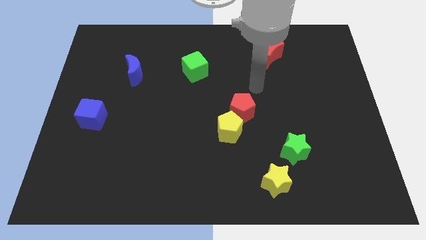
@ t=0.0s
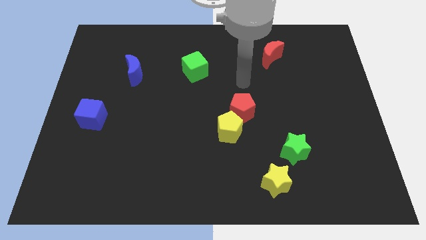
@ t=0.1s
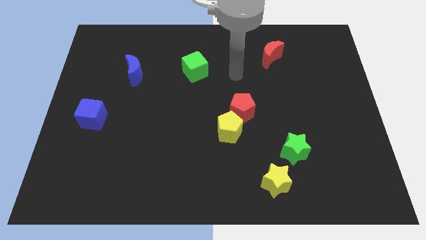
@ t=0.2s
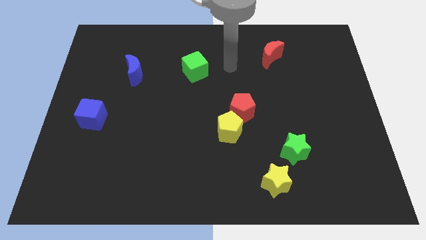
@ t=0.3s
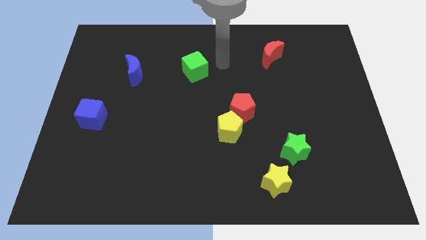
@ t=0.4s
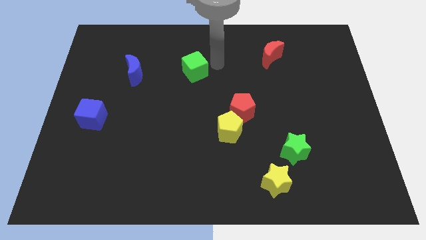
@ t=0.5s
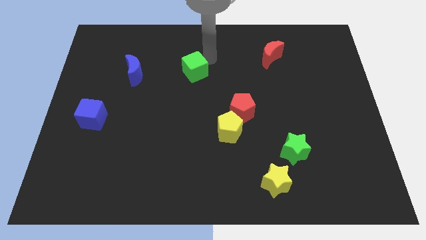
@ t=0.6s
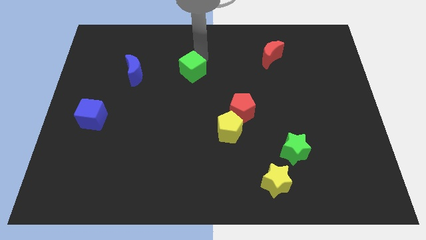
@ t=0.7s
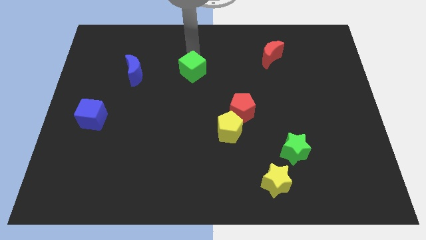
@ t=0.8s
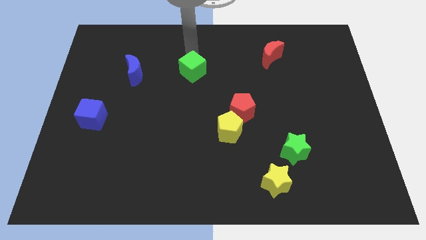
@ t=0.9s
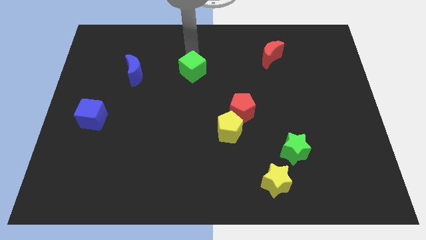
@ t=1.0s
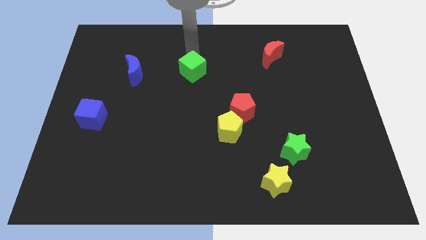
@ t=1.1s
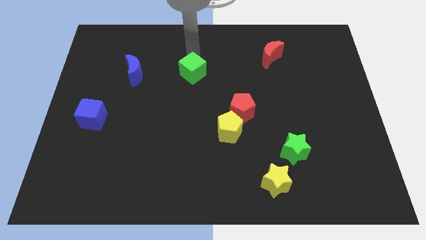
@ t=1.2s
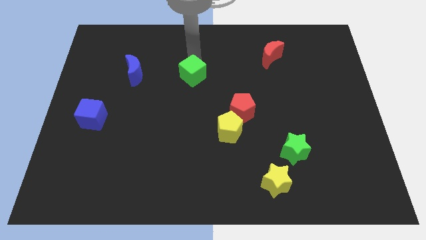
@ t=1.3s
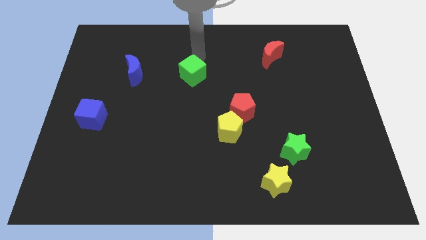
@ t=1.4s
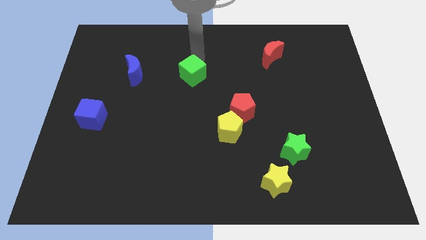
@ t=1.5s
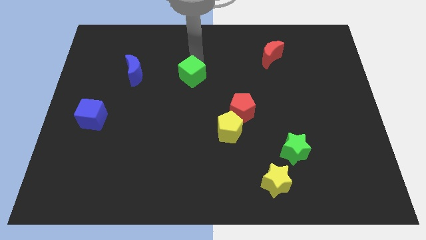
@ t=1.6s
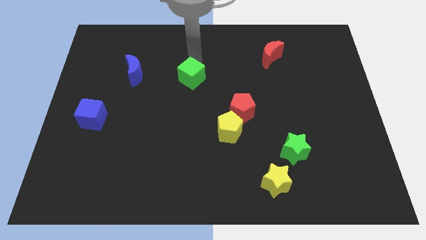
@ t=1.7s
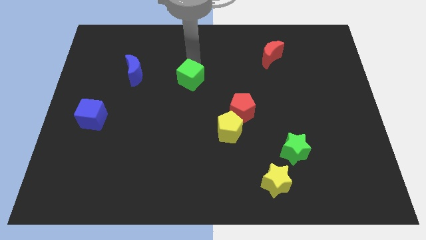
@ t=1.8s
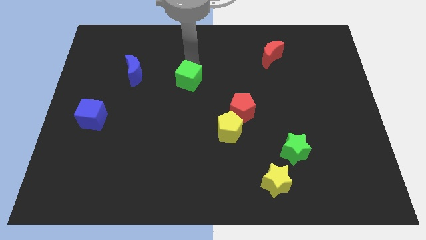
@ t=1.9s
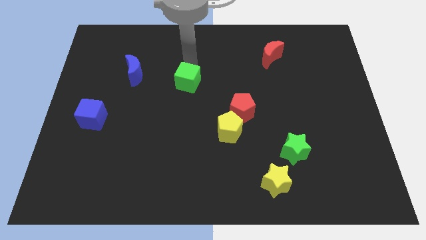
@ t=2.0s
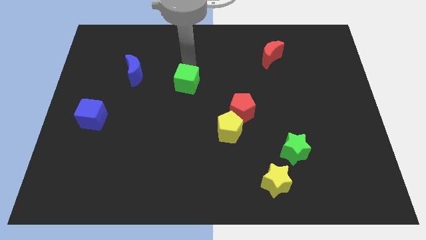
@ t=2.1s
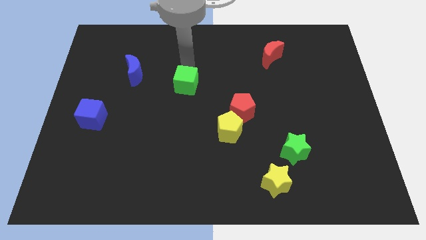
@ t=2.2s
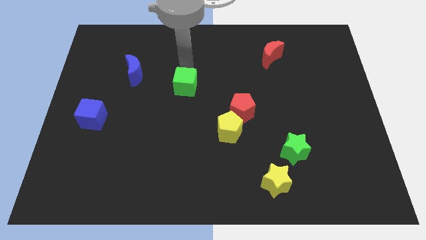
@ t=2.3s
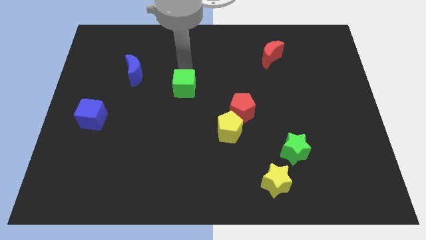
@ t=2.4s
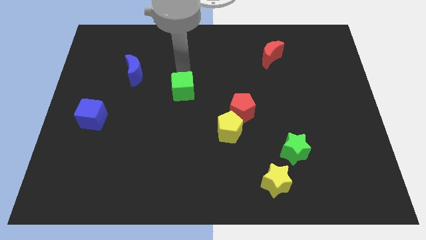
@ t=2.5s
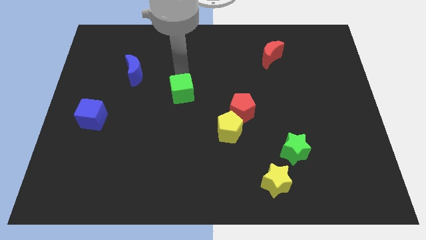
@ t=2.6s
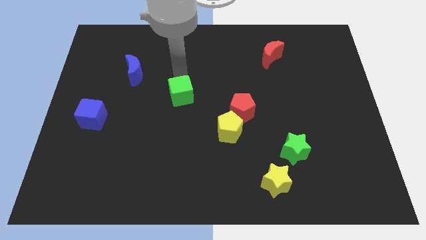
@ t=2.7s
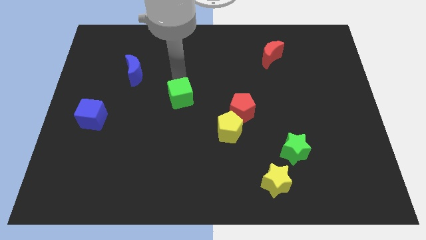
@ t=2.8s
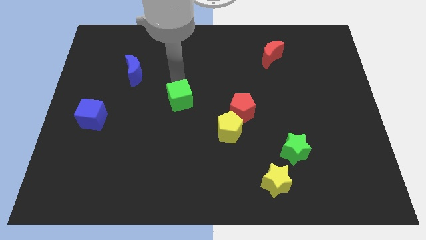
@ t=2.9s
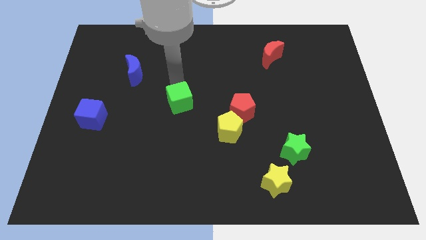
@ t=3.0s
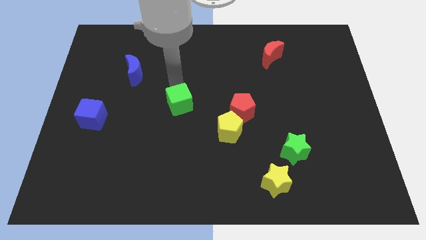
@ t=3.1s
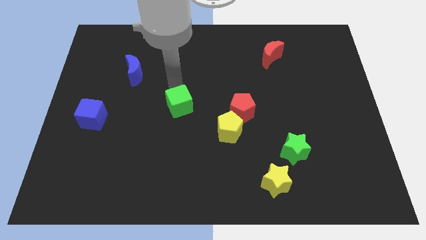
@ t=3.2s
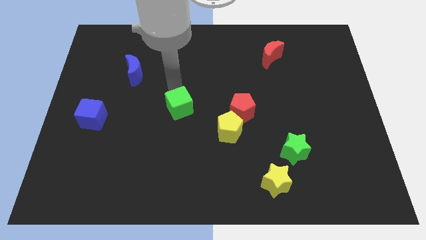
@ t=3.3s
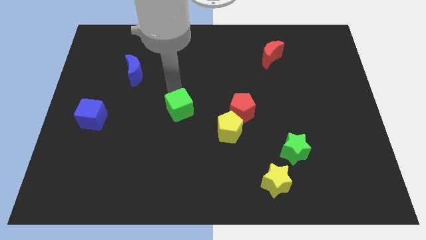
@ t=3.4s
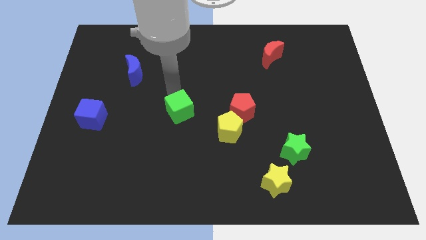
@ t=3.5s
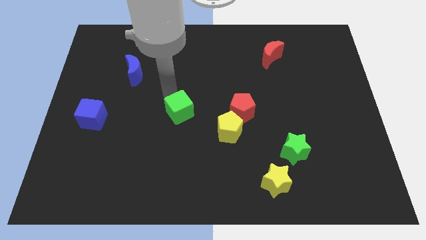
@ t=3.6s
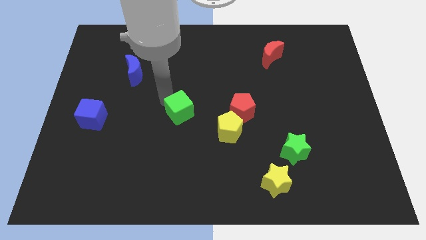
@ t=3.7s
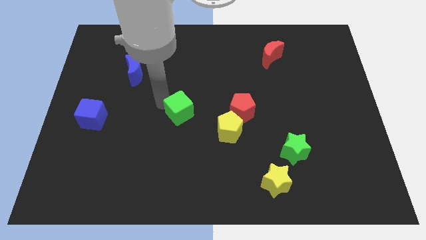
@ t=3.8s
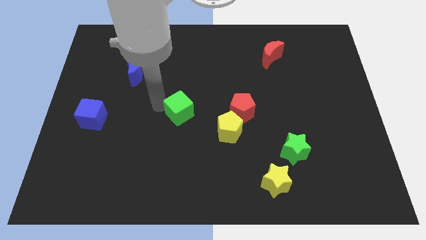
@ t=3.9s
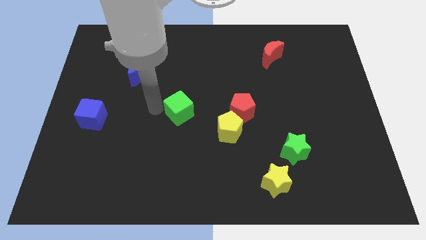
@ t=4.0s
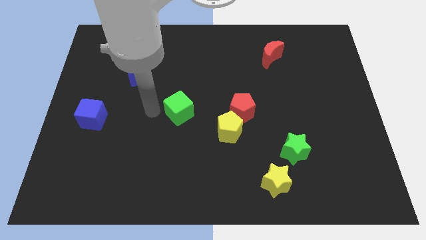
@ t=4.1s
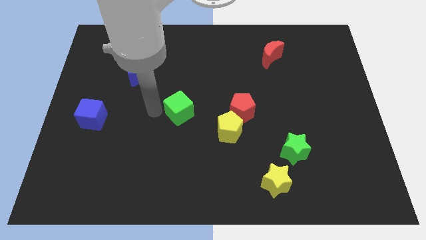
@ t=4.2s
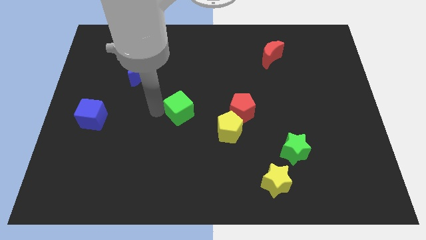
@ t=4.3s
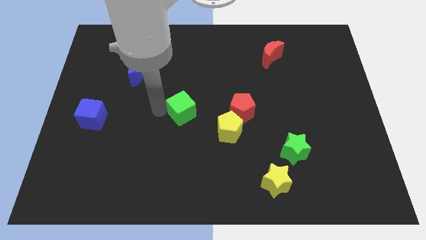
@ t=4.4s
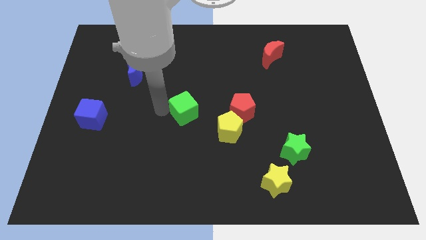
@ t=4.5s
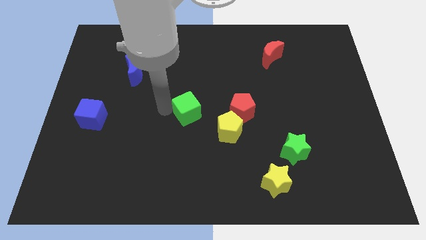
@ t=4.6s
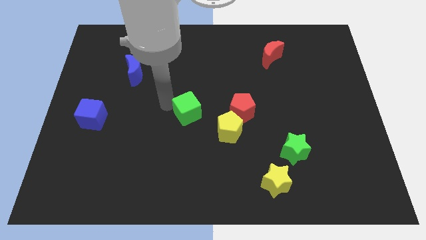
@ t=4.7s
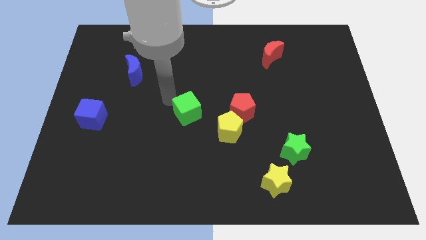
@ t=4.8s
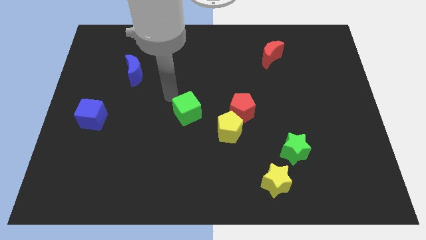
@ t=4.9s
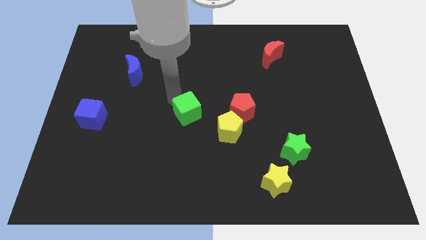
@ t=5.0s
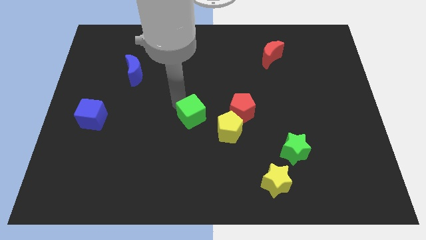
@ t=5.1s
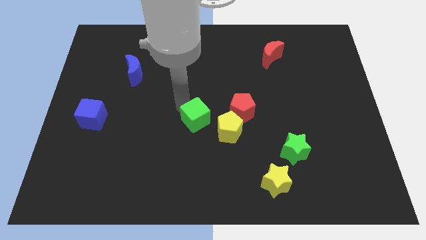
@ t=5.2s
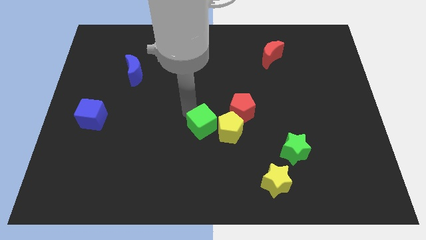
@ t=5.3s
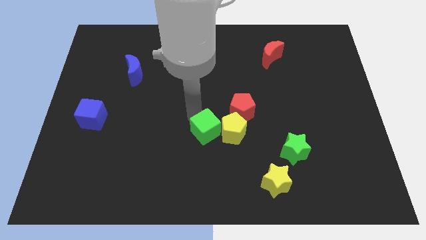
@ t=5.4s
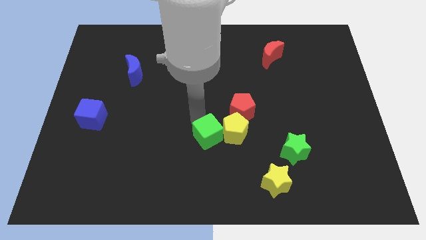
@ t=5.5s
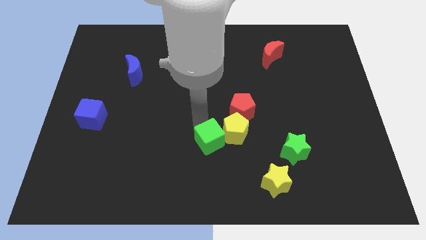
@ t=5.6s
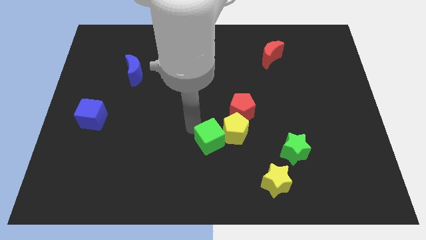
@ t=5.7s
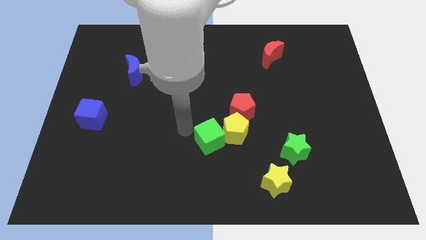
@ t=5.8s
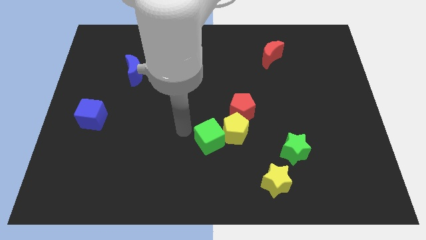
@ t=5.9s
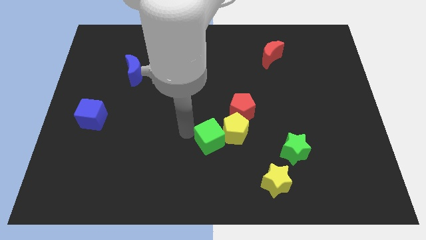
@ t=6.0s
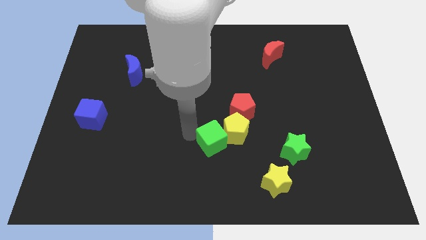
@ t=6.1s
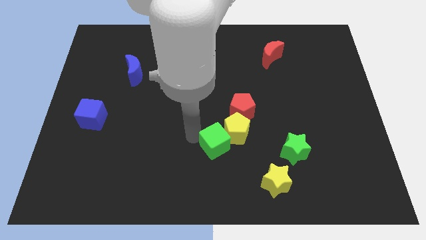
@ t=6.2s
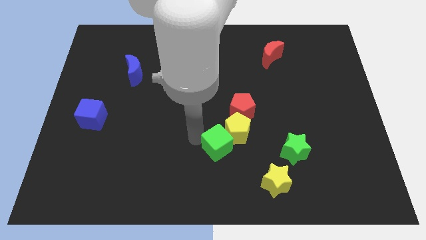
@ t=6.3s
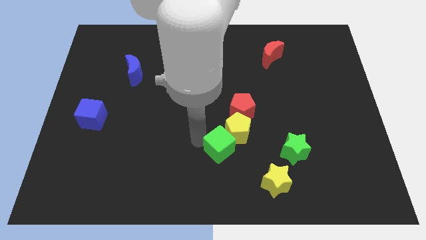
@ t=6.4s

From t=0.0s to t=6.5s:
put the green cube left of the green star
